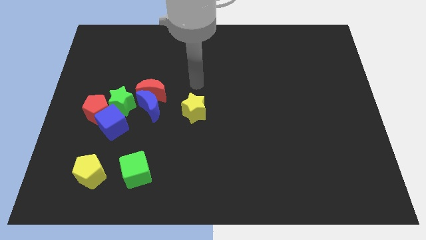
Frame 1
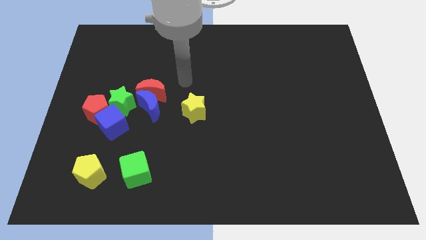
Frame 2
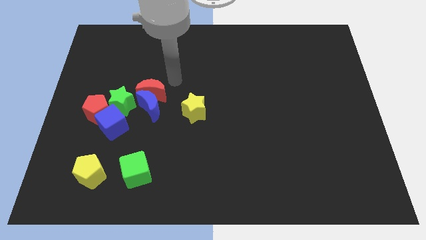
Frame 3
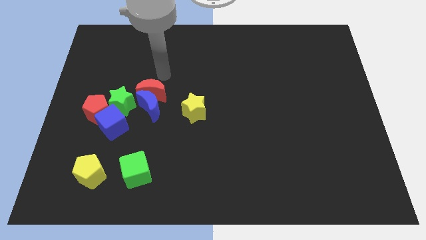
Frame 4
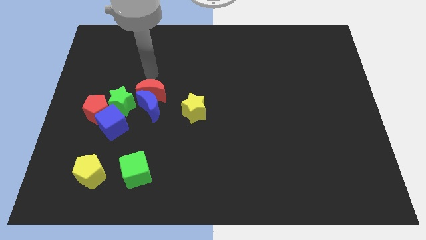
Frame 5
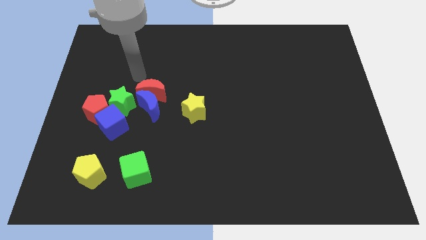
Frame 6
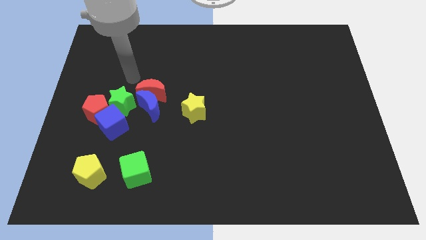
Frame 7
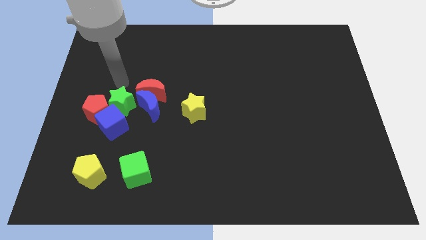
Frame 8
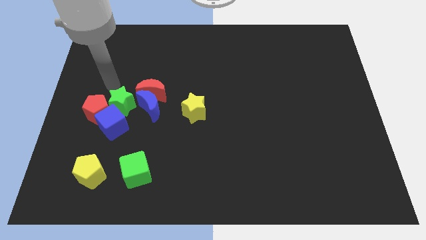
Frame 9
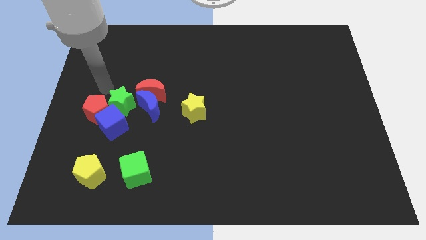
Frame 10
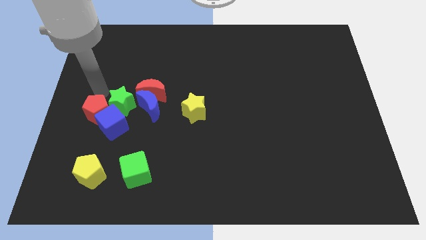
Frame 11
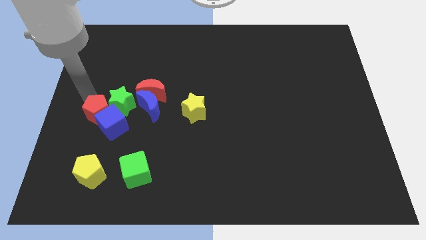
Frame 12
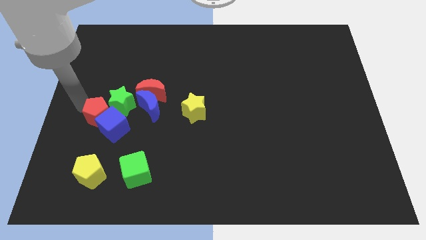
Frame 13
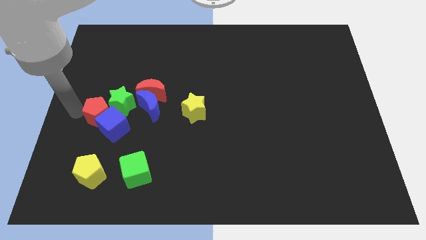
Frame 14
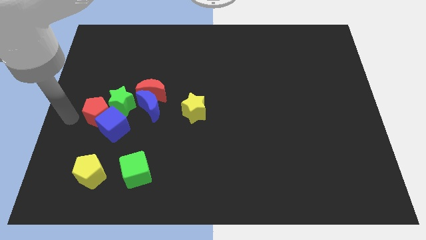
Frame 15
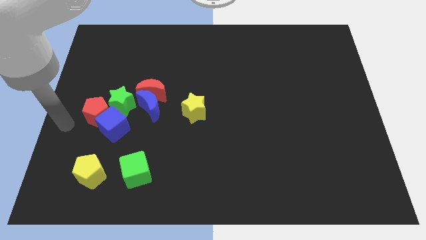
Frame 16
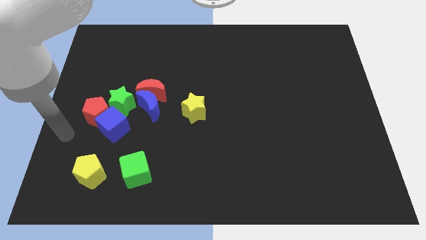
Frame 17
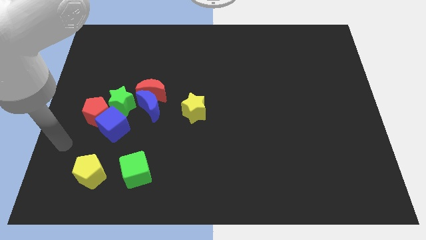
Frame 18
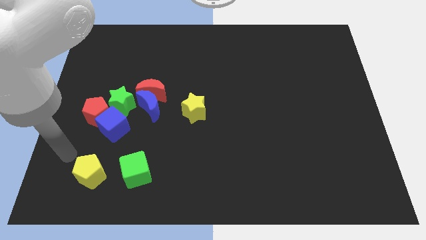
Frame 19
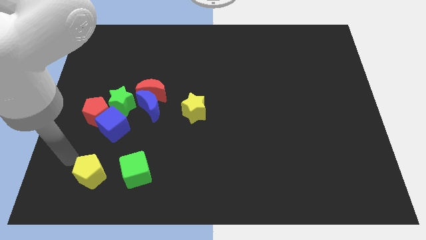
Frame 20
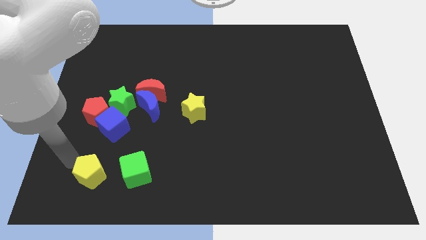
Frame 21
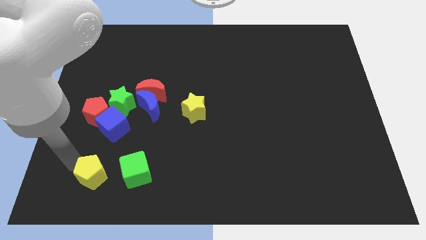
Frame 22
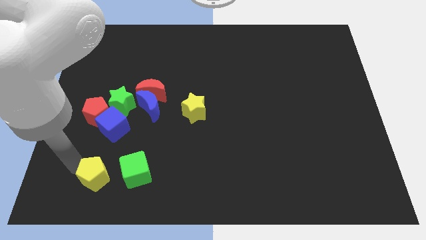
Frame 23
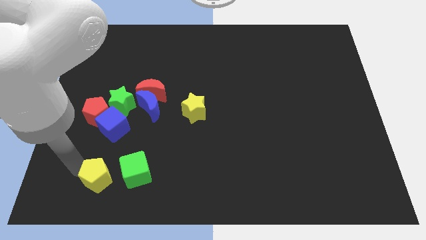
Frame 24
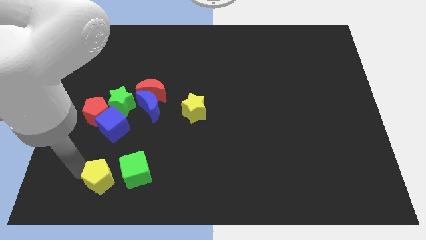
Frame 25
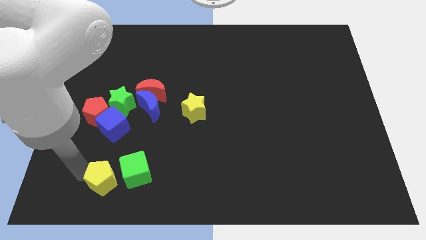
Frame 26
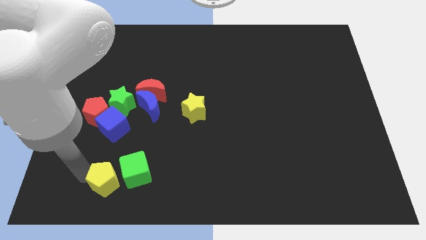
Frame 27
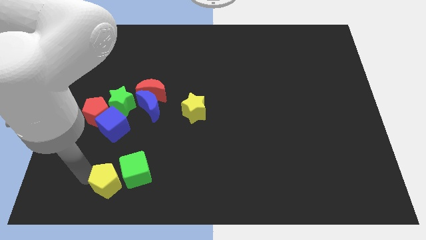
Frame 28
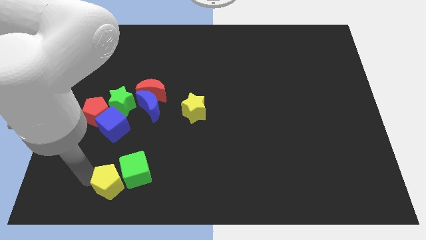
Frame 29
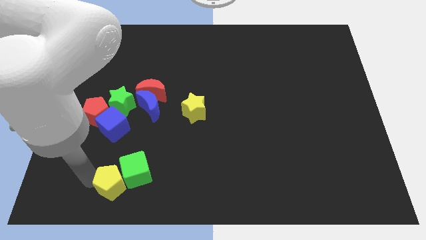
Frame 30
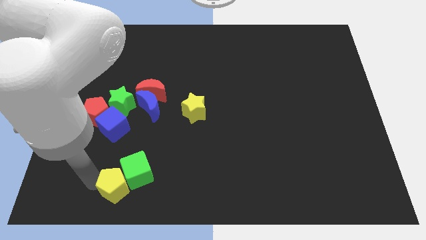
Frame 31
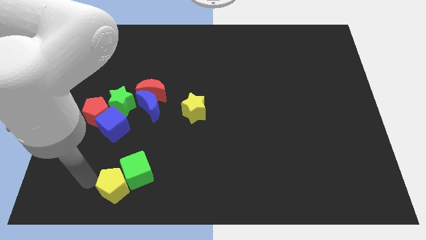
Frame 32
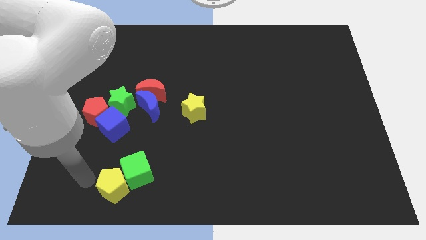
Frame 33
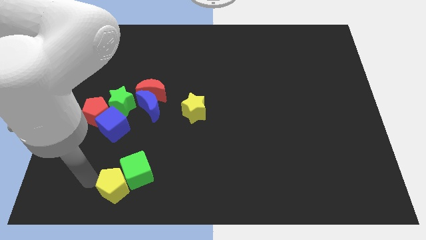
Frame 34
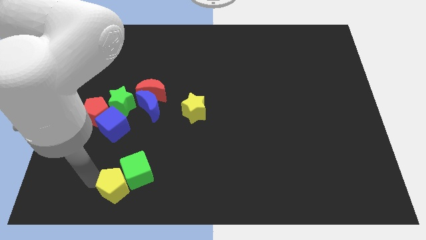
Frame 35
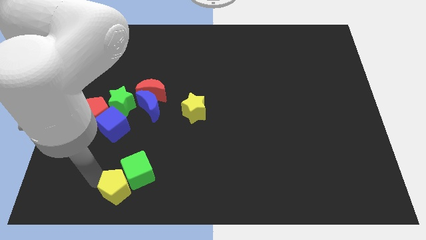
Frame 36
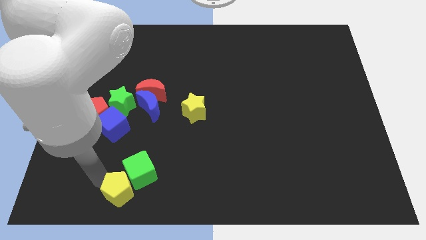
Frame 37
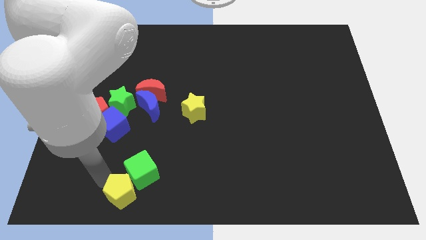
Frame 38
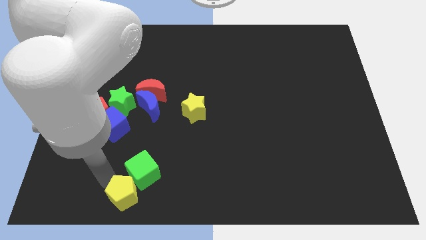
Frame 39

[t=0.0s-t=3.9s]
slightly move the yellow pentagon right

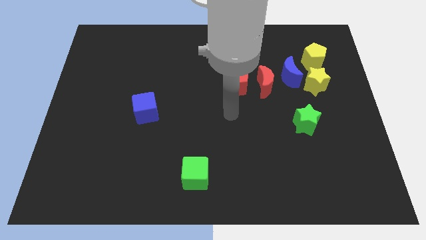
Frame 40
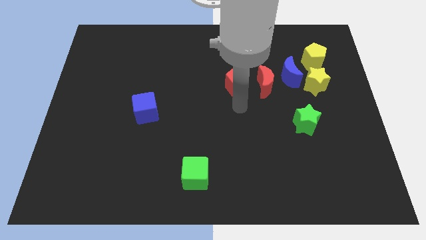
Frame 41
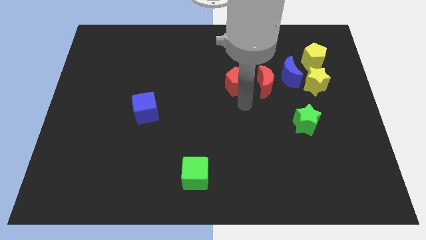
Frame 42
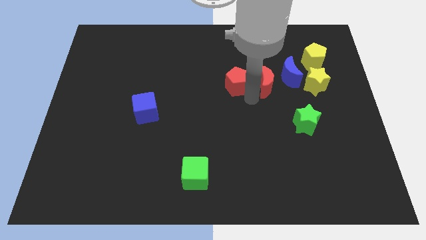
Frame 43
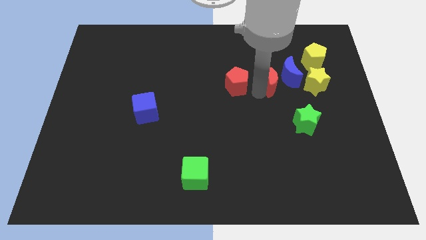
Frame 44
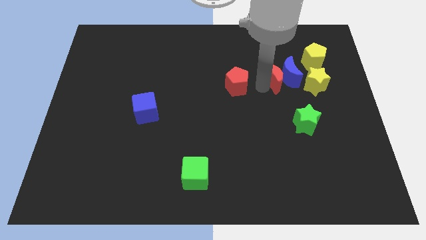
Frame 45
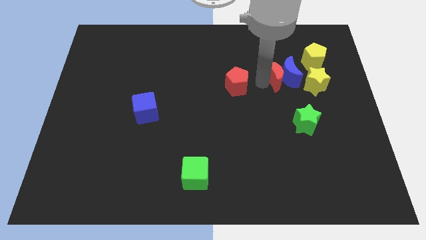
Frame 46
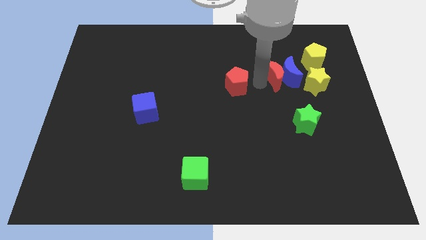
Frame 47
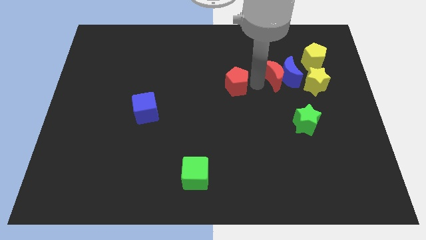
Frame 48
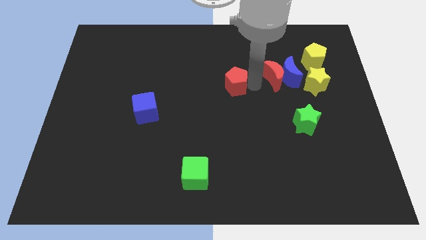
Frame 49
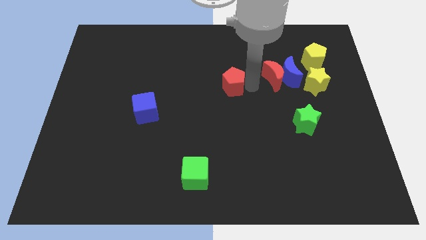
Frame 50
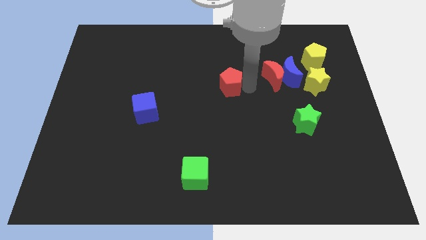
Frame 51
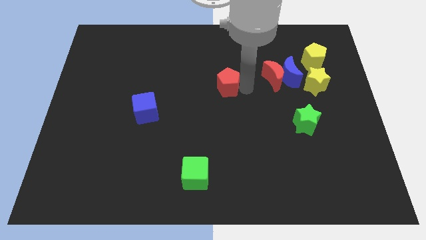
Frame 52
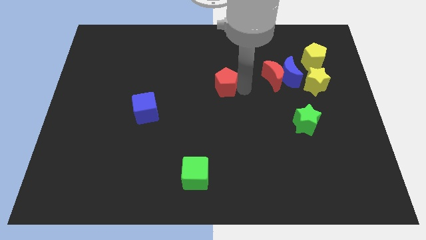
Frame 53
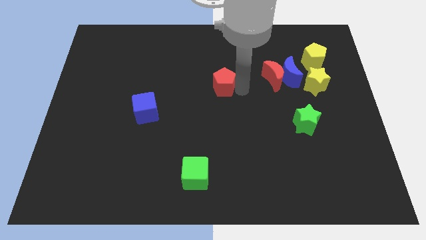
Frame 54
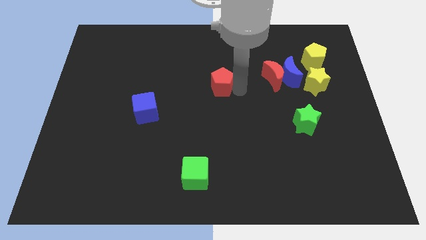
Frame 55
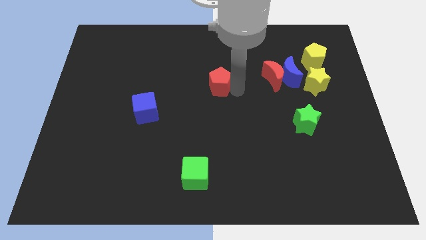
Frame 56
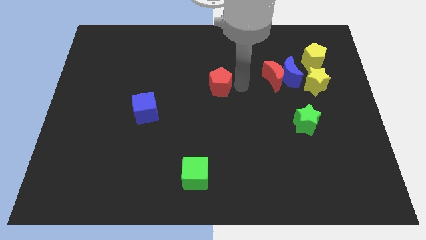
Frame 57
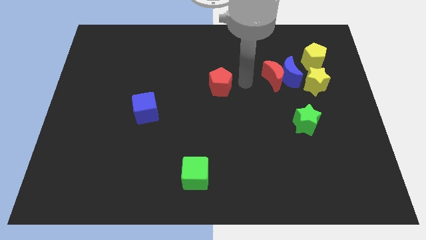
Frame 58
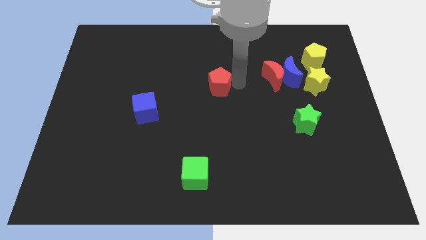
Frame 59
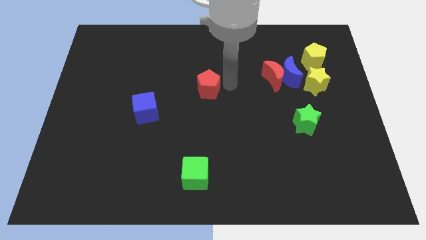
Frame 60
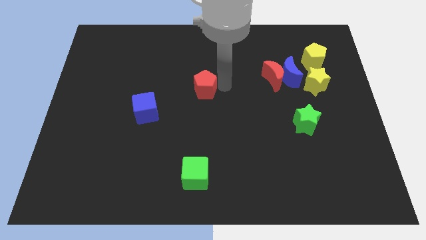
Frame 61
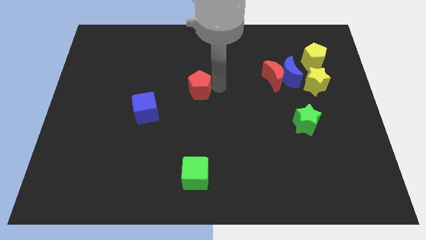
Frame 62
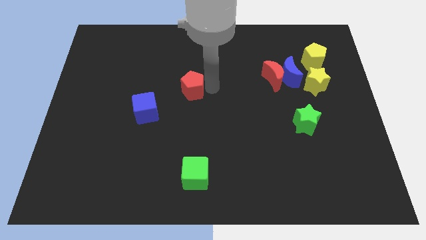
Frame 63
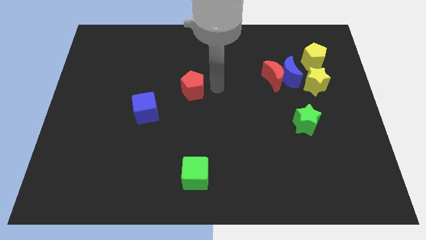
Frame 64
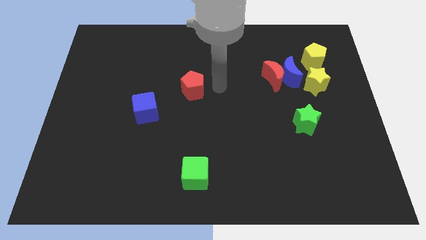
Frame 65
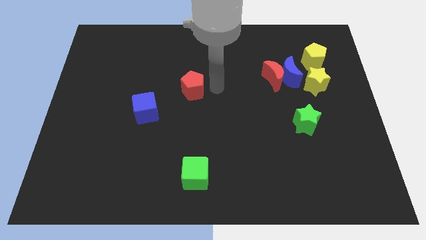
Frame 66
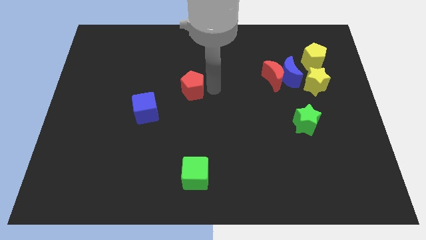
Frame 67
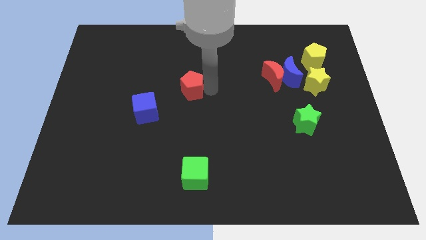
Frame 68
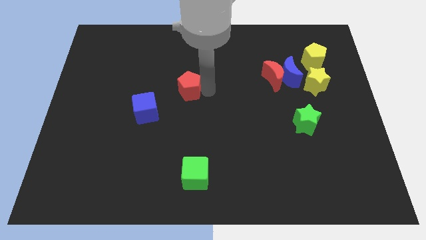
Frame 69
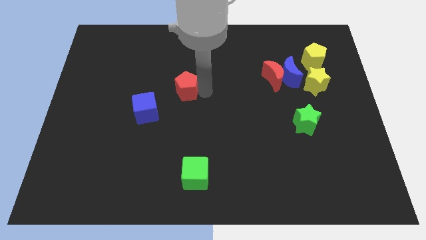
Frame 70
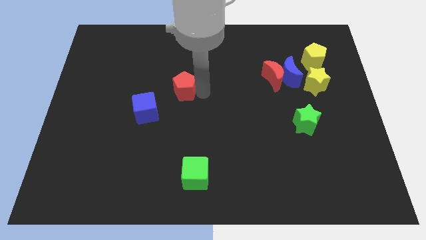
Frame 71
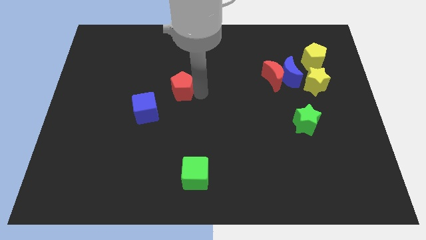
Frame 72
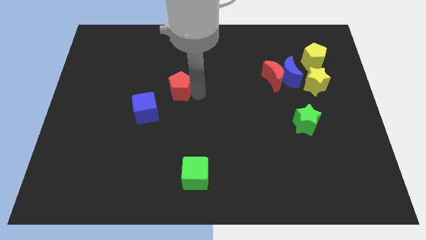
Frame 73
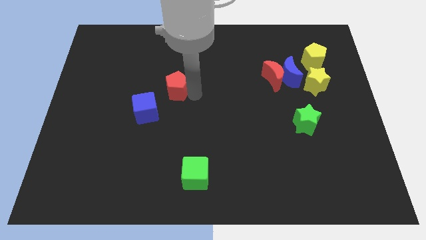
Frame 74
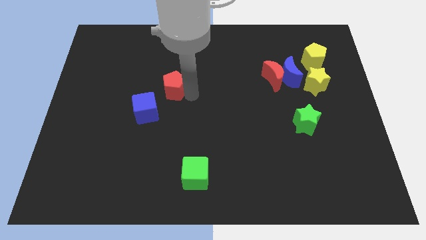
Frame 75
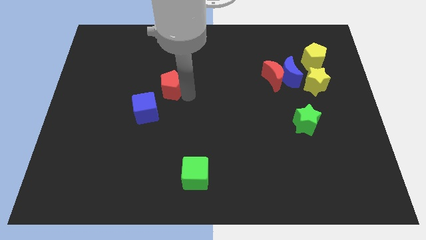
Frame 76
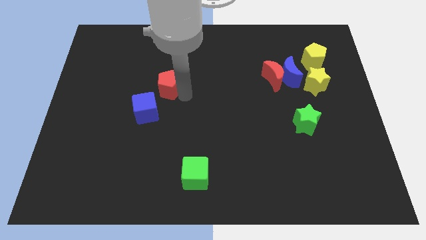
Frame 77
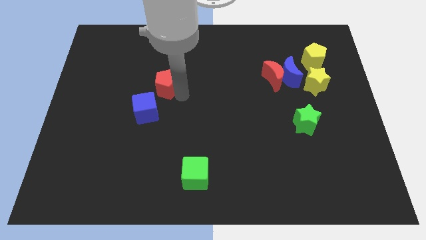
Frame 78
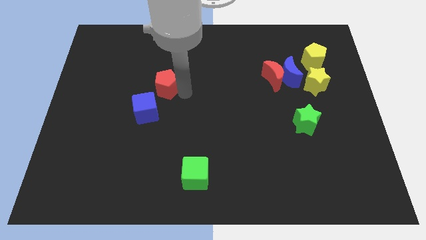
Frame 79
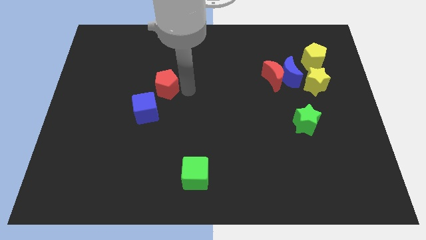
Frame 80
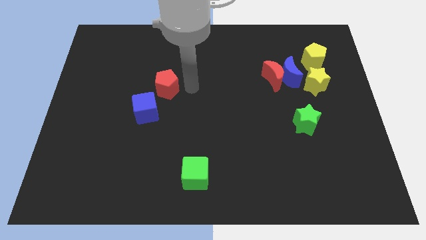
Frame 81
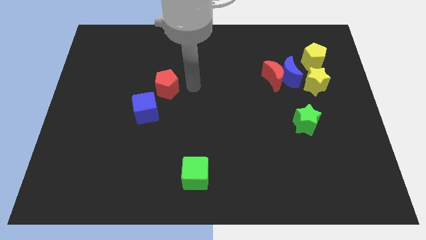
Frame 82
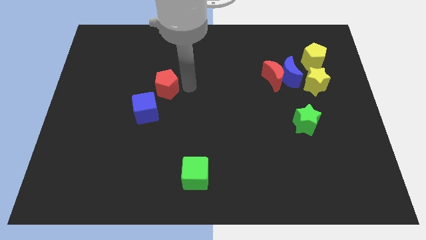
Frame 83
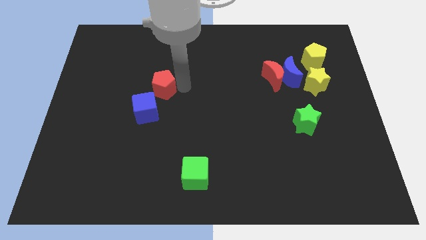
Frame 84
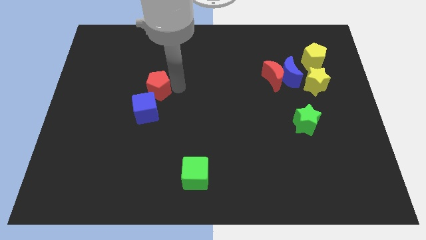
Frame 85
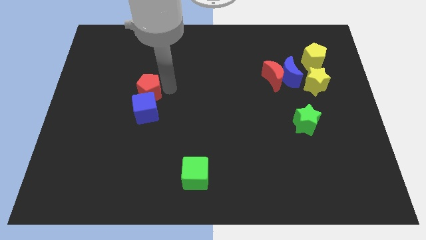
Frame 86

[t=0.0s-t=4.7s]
move the red pentagon to the left
